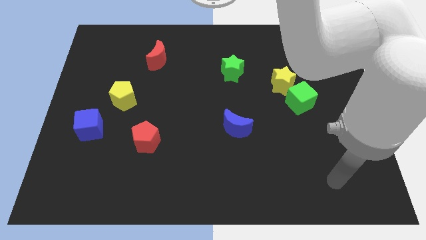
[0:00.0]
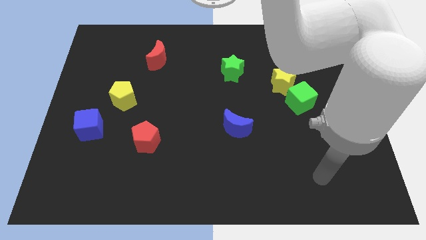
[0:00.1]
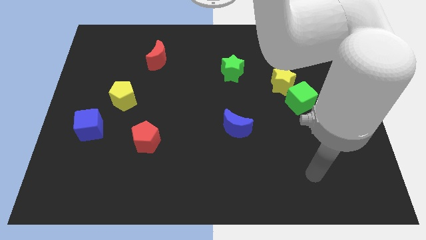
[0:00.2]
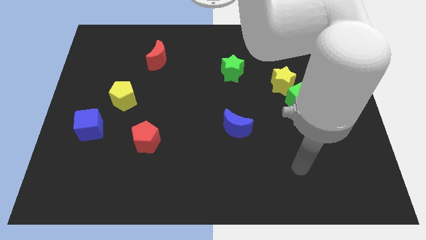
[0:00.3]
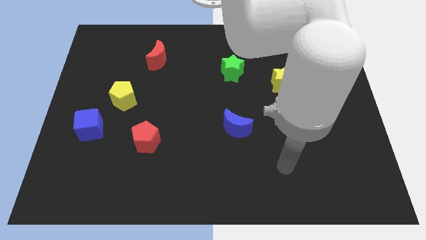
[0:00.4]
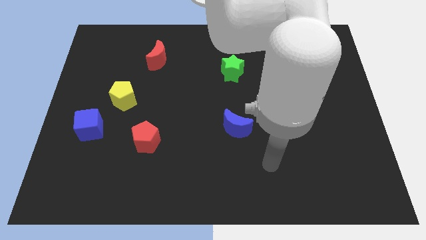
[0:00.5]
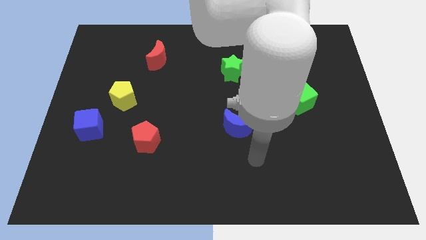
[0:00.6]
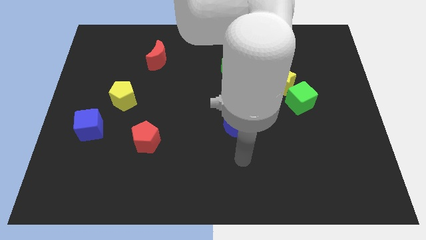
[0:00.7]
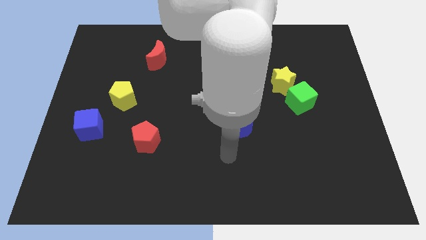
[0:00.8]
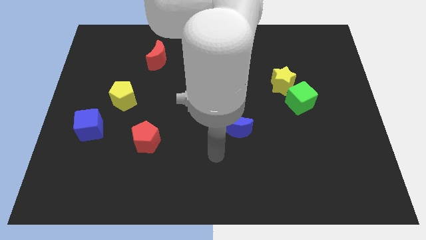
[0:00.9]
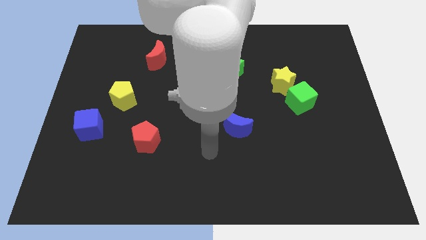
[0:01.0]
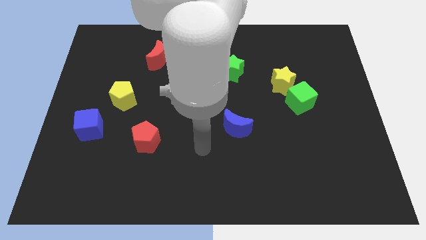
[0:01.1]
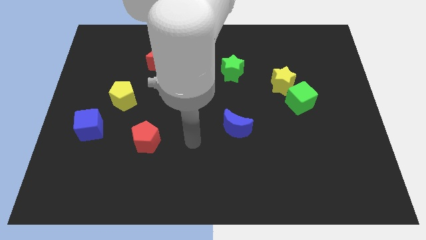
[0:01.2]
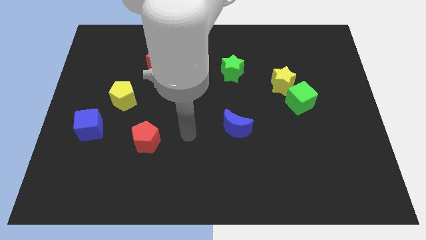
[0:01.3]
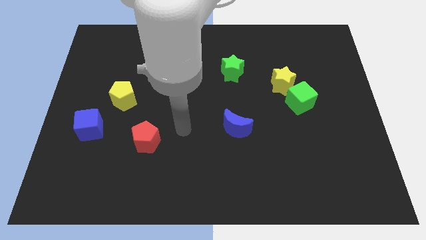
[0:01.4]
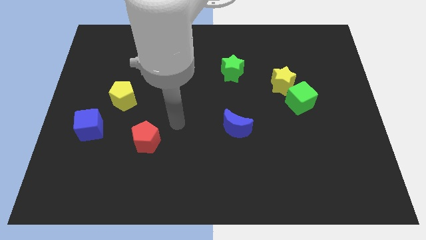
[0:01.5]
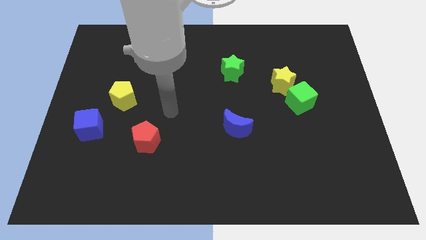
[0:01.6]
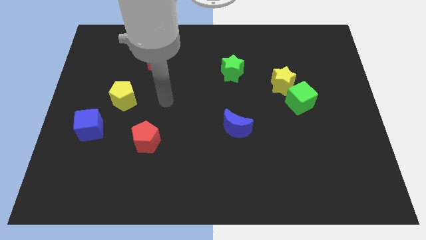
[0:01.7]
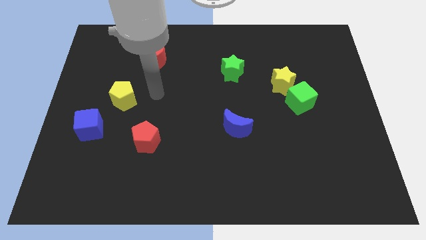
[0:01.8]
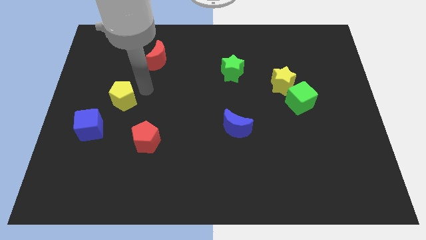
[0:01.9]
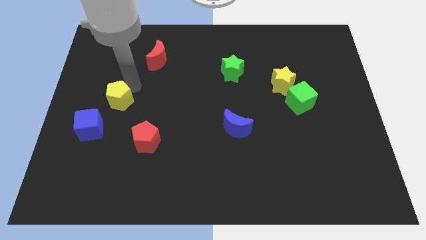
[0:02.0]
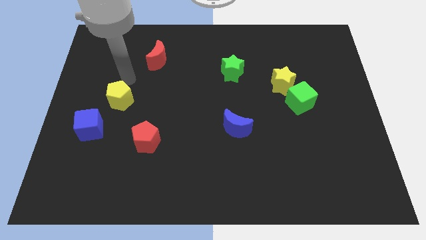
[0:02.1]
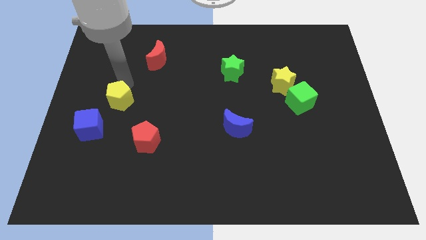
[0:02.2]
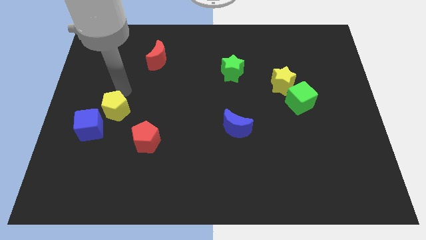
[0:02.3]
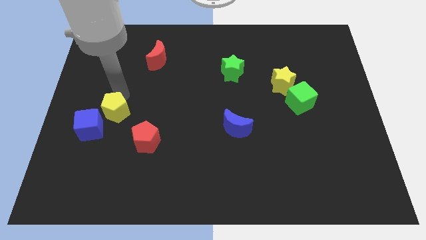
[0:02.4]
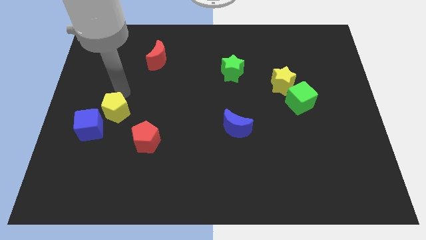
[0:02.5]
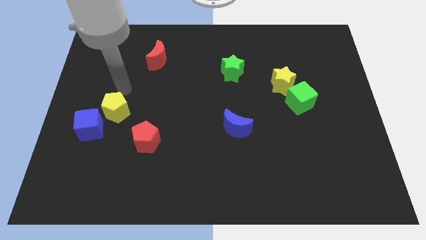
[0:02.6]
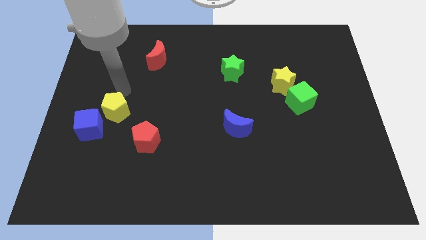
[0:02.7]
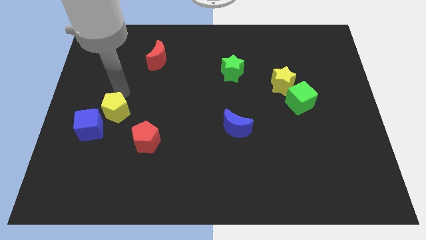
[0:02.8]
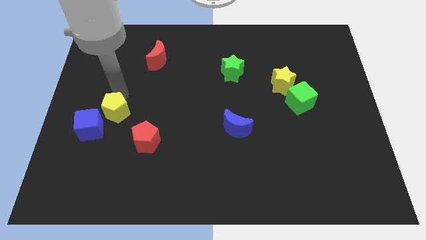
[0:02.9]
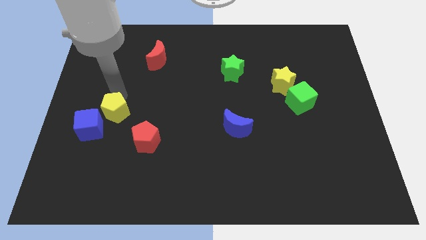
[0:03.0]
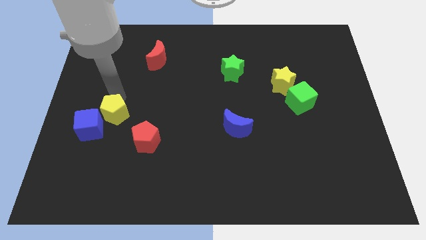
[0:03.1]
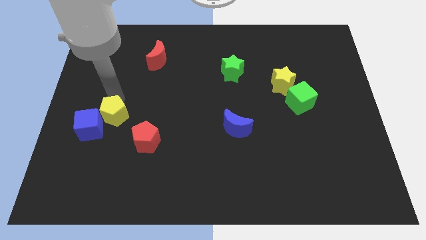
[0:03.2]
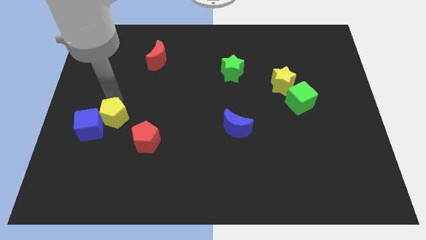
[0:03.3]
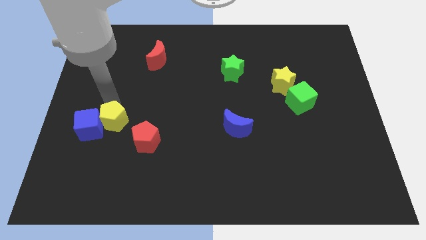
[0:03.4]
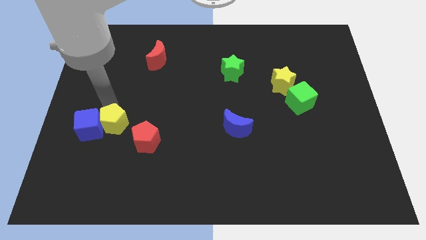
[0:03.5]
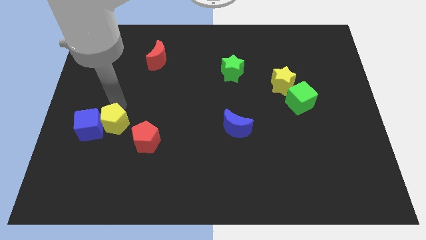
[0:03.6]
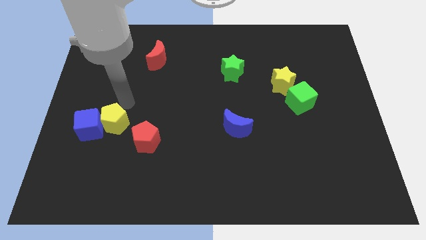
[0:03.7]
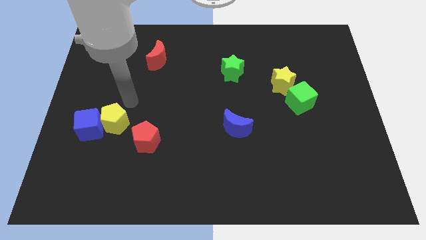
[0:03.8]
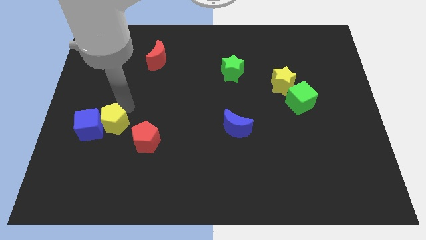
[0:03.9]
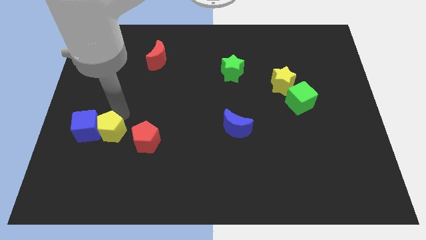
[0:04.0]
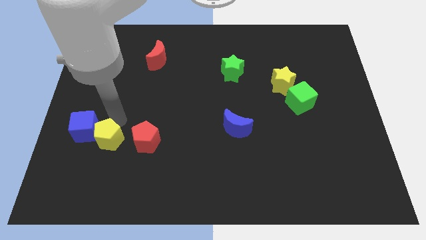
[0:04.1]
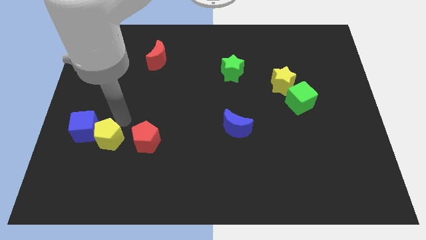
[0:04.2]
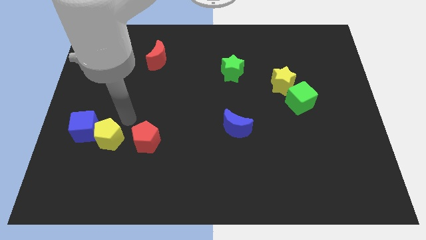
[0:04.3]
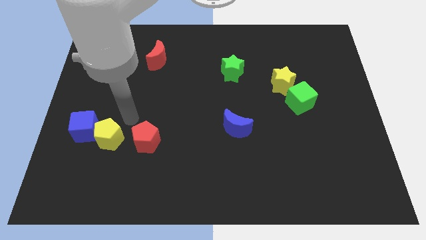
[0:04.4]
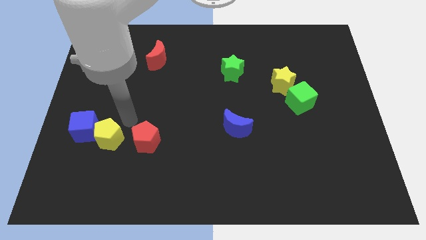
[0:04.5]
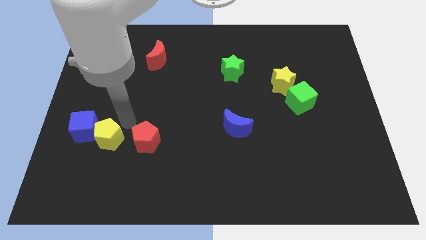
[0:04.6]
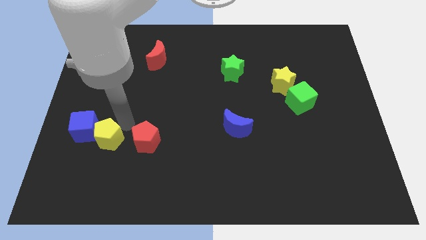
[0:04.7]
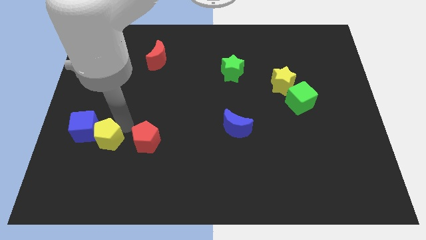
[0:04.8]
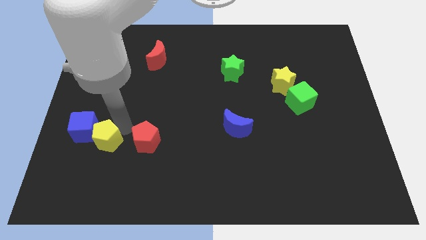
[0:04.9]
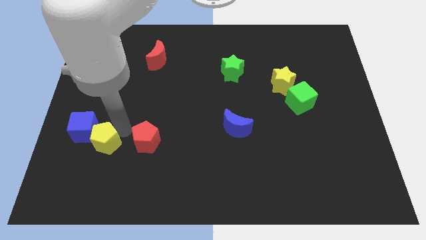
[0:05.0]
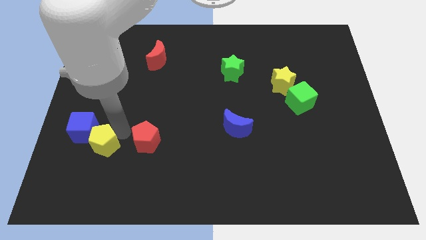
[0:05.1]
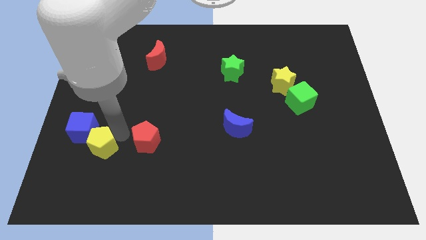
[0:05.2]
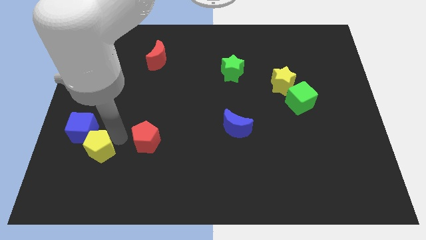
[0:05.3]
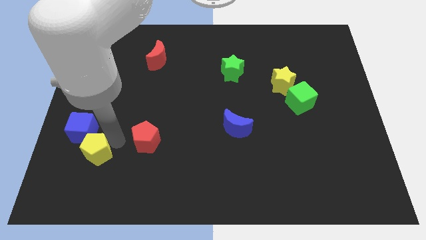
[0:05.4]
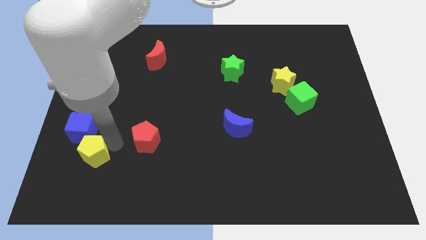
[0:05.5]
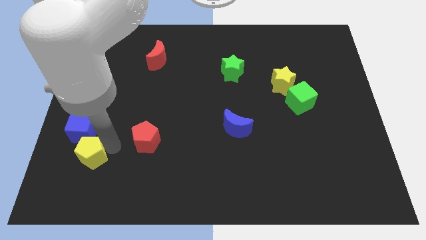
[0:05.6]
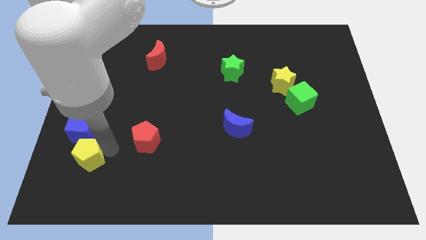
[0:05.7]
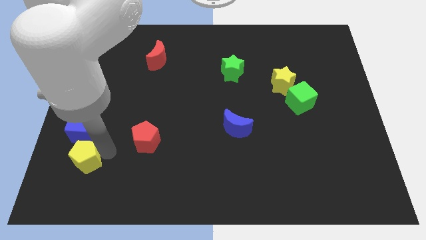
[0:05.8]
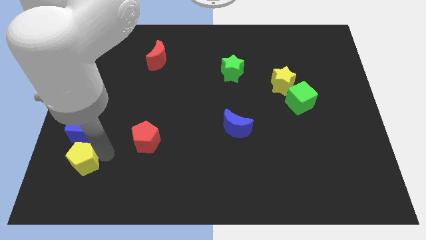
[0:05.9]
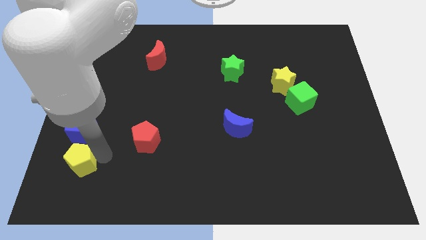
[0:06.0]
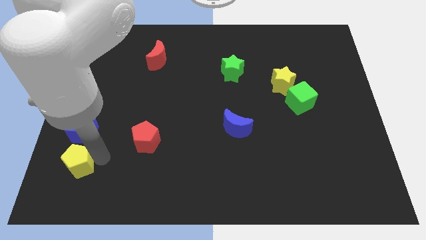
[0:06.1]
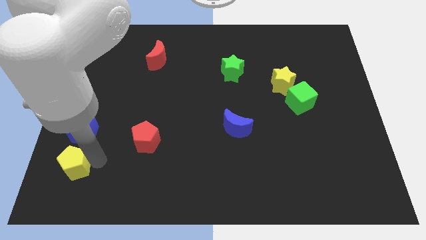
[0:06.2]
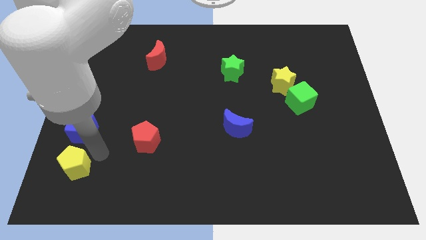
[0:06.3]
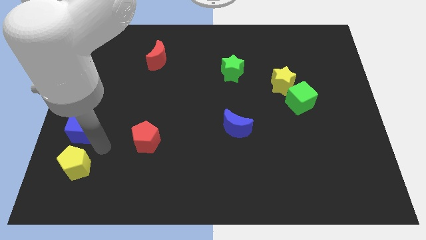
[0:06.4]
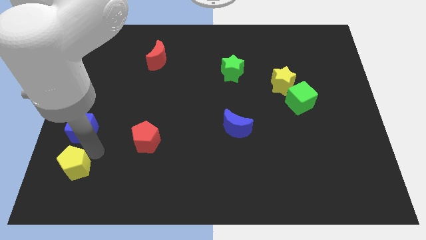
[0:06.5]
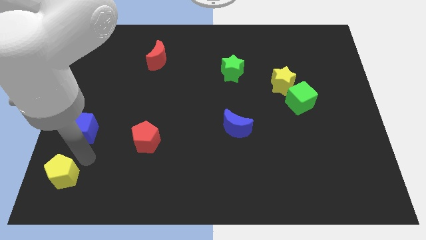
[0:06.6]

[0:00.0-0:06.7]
push the yellow pentagon to the lower left corner

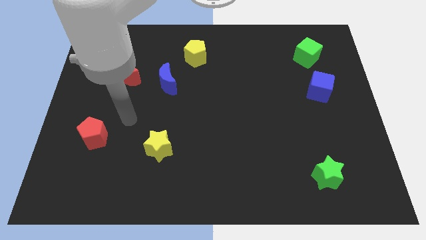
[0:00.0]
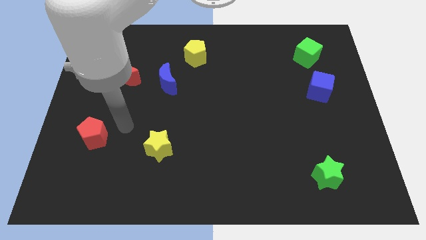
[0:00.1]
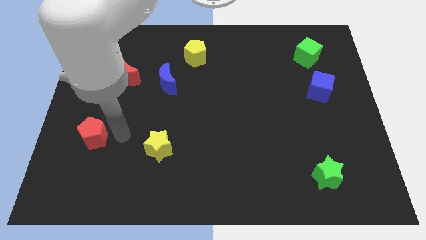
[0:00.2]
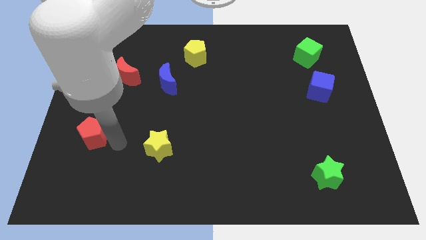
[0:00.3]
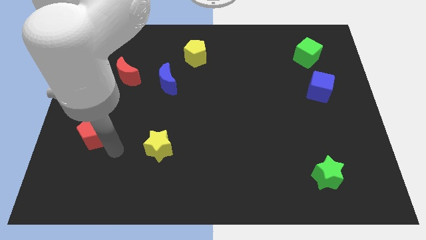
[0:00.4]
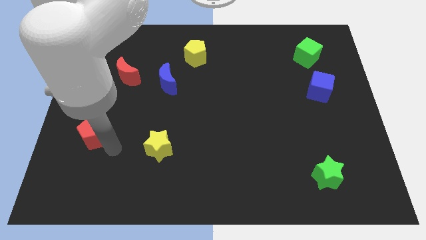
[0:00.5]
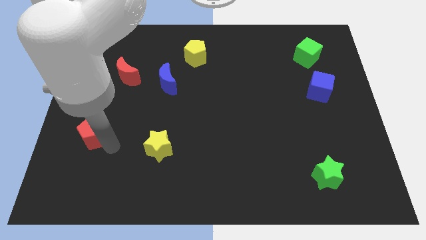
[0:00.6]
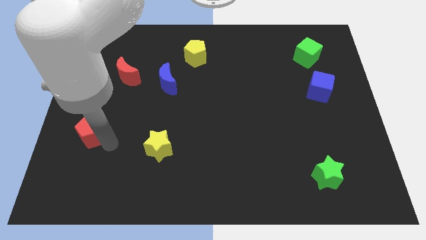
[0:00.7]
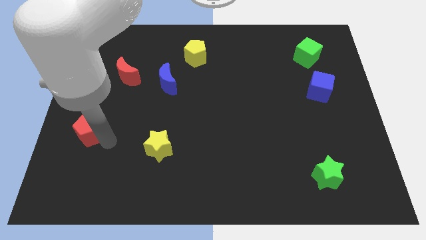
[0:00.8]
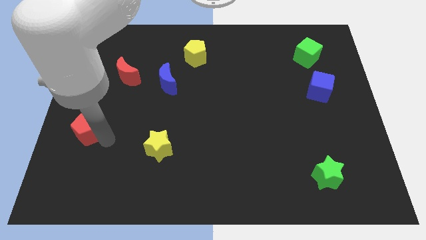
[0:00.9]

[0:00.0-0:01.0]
put the red pentagon to the left side of the board
